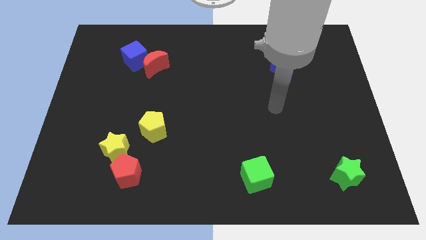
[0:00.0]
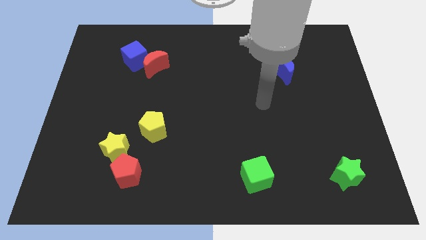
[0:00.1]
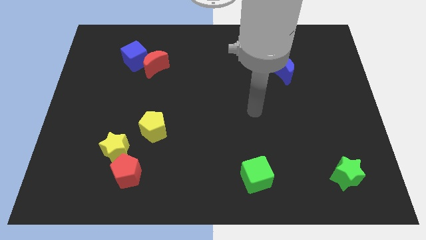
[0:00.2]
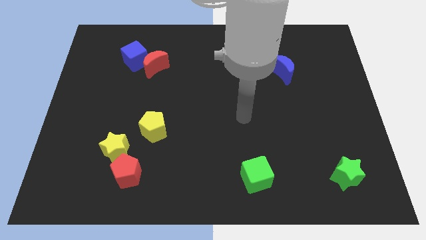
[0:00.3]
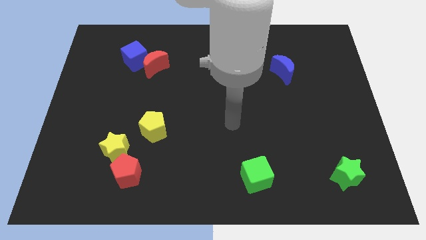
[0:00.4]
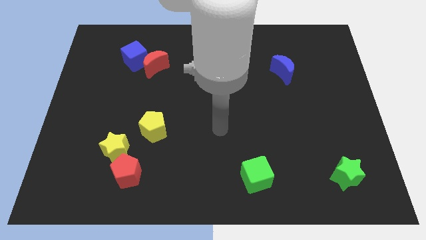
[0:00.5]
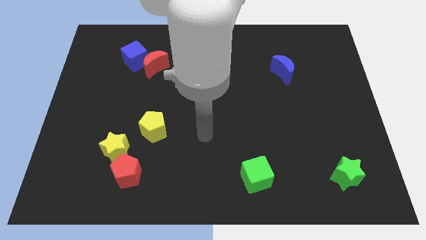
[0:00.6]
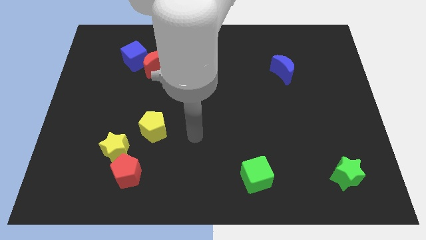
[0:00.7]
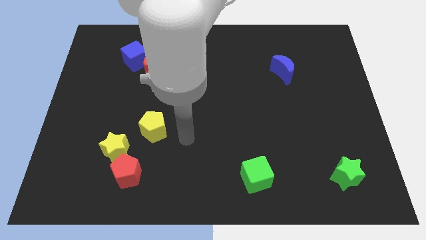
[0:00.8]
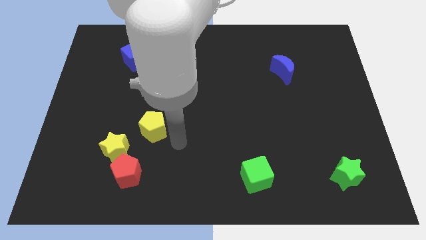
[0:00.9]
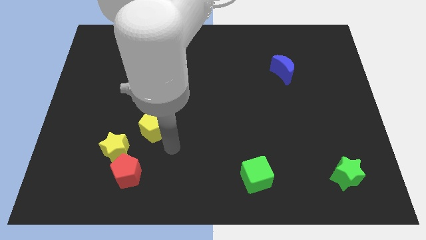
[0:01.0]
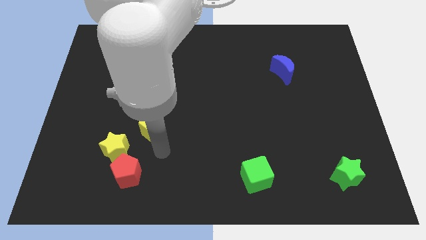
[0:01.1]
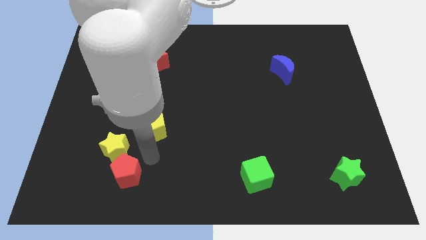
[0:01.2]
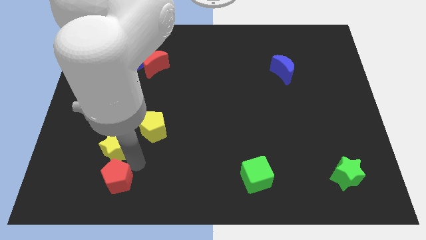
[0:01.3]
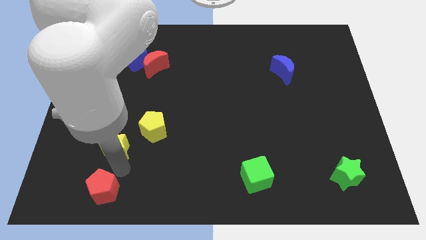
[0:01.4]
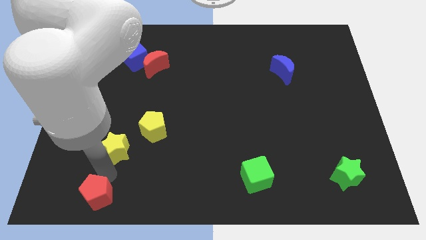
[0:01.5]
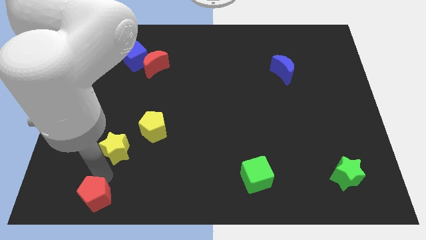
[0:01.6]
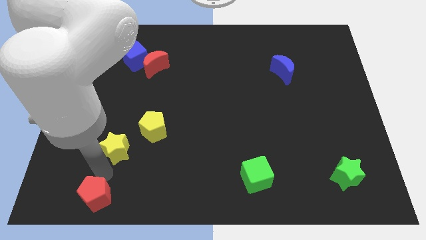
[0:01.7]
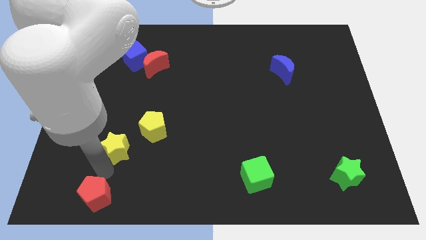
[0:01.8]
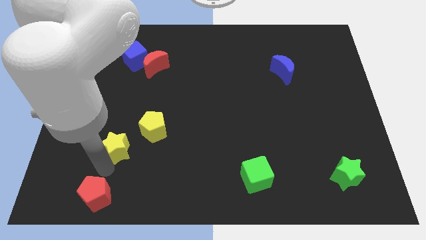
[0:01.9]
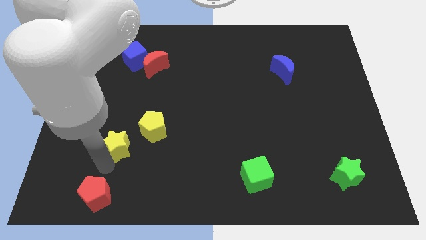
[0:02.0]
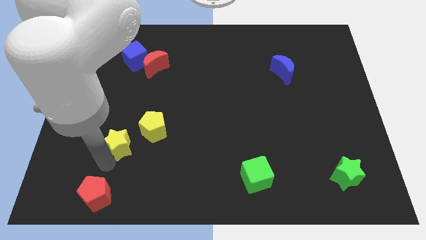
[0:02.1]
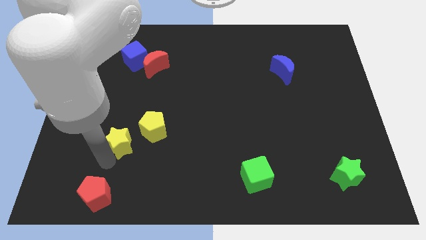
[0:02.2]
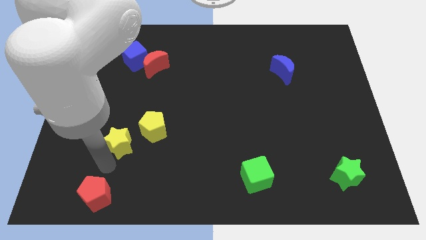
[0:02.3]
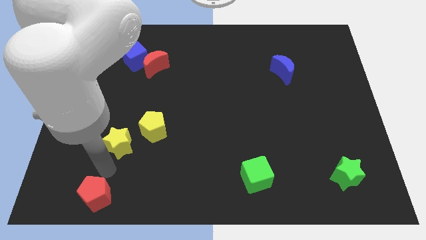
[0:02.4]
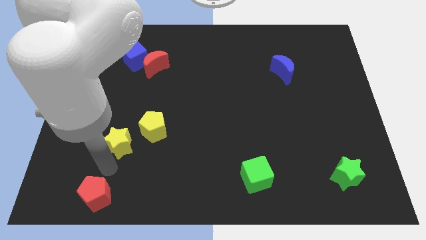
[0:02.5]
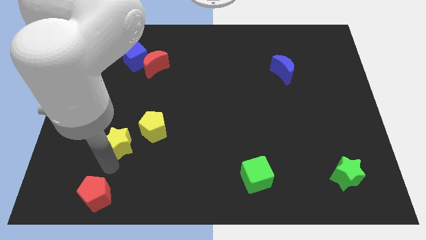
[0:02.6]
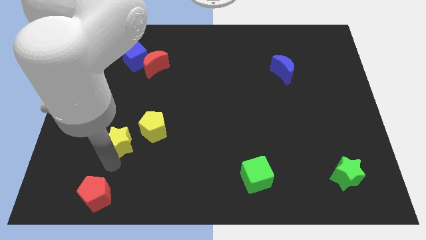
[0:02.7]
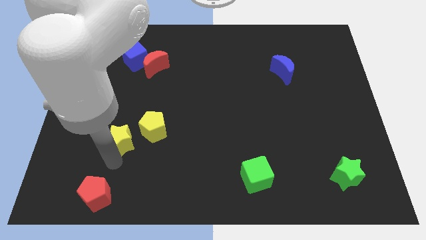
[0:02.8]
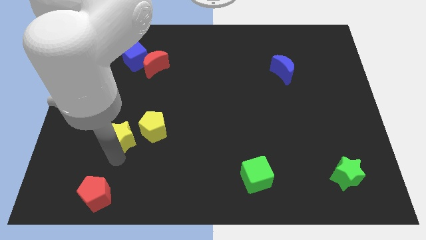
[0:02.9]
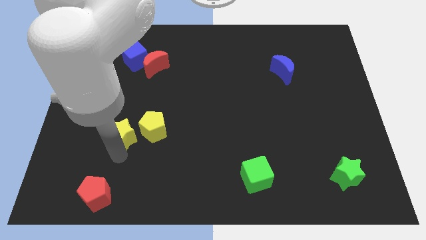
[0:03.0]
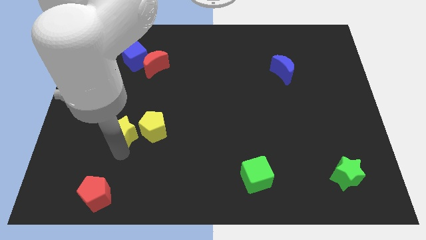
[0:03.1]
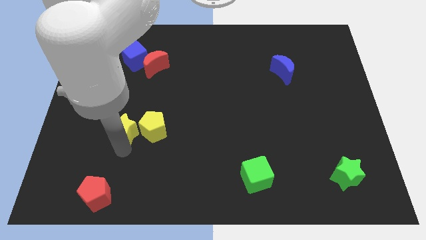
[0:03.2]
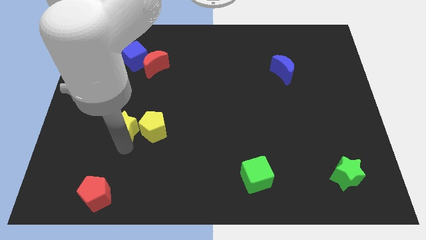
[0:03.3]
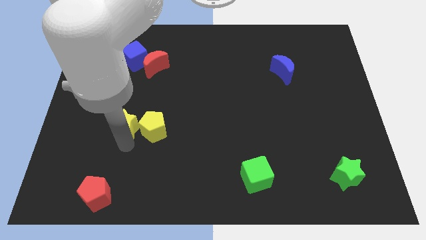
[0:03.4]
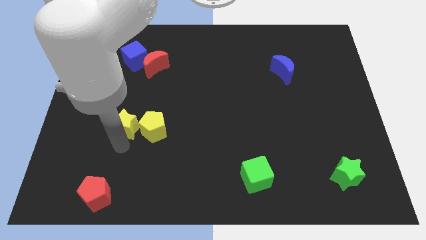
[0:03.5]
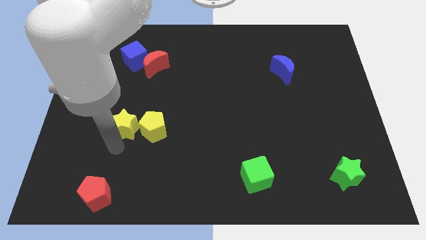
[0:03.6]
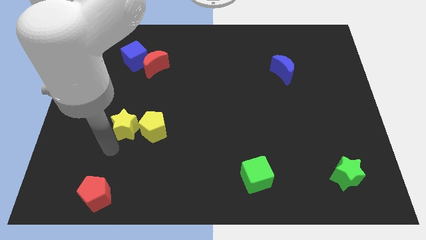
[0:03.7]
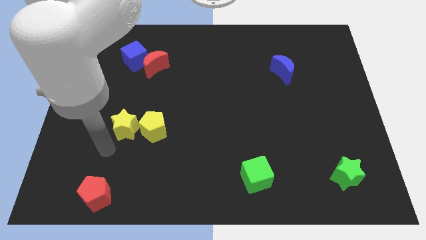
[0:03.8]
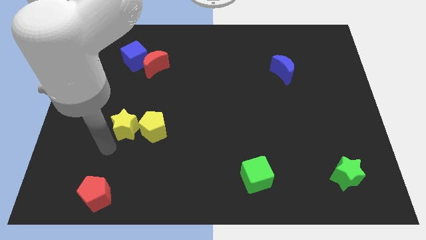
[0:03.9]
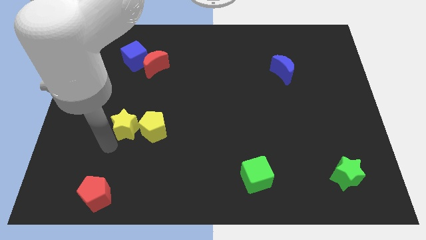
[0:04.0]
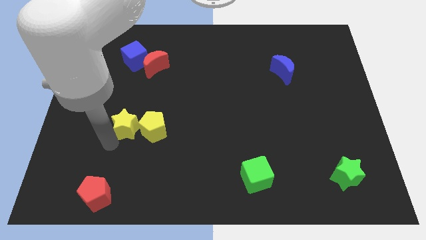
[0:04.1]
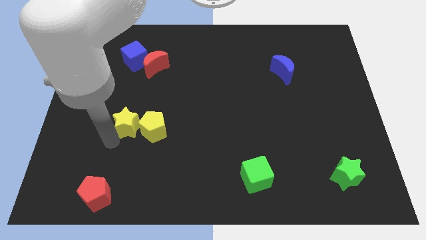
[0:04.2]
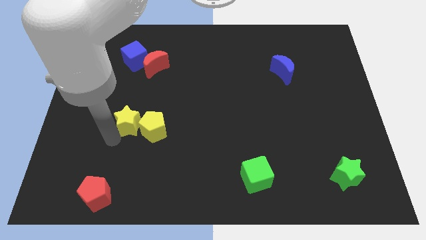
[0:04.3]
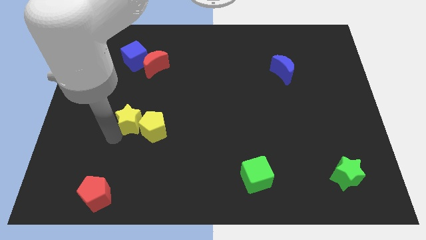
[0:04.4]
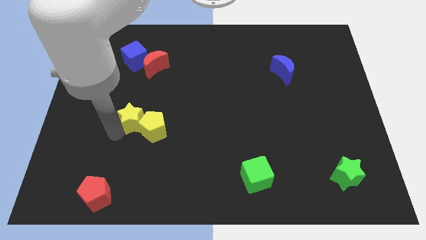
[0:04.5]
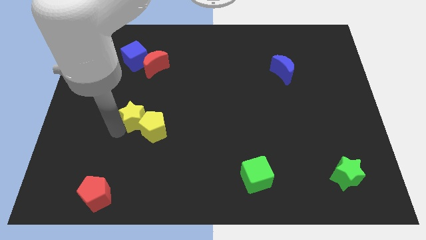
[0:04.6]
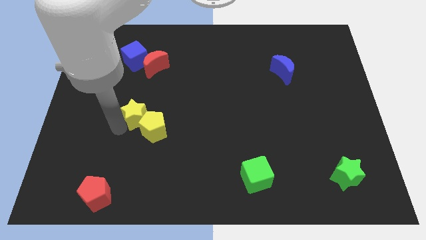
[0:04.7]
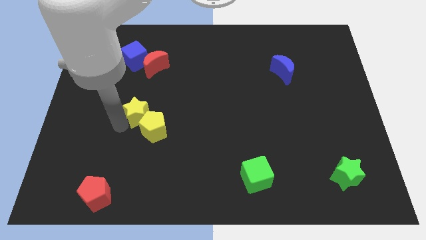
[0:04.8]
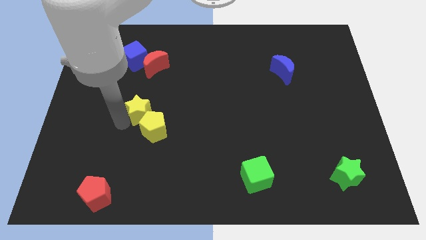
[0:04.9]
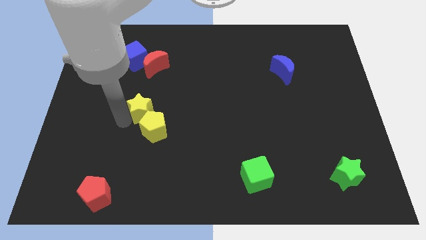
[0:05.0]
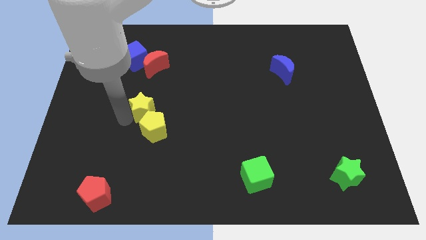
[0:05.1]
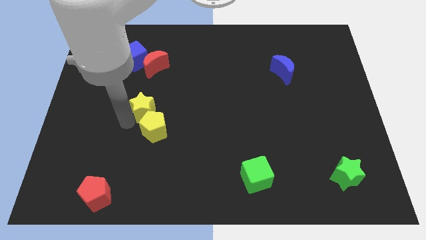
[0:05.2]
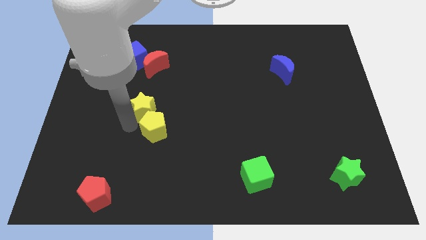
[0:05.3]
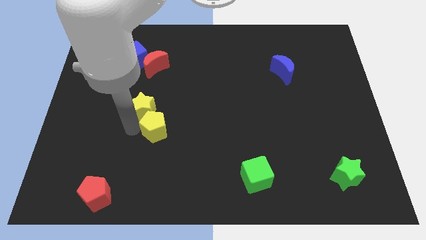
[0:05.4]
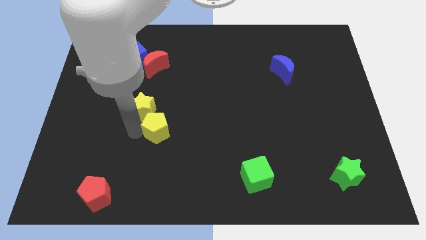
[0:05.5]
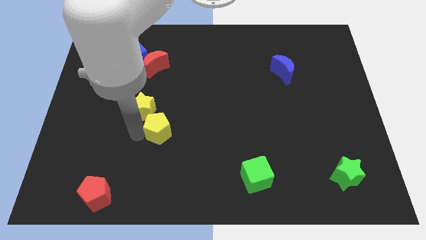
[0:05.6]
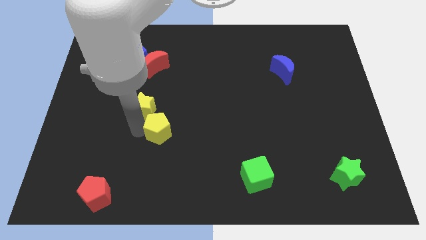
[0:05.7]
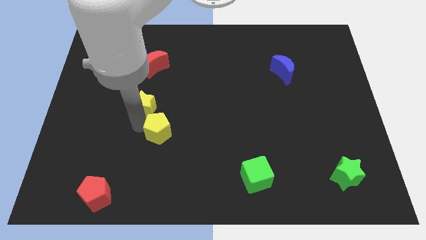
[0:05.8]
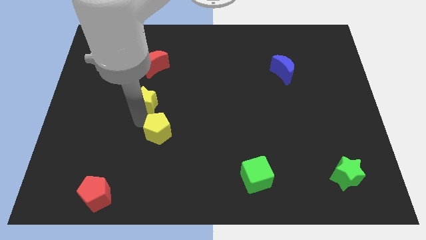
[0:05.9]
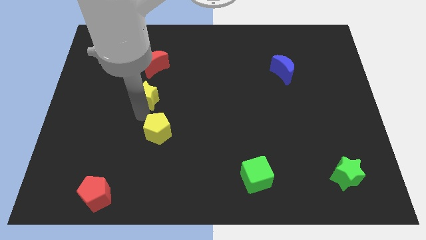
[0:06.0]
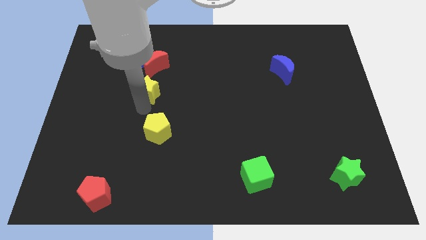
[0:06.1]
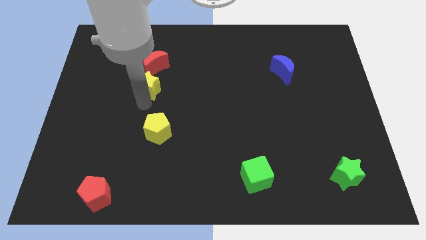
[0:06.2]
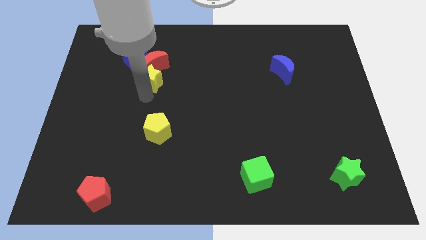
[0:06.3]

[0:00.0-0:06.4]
slide the yellow star towards the red moon

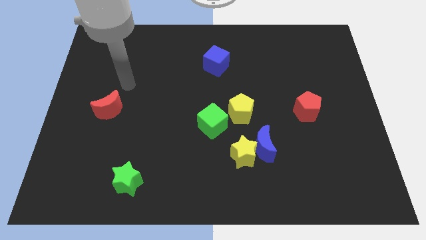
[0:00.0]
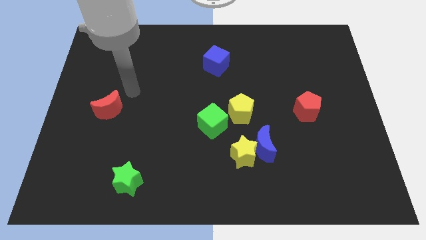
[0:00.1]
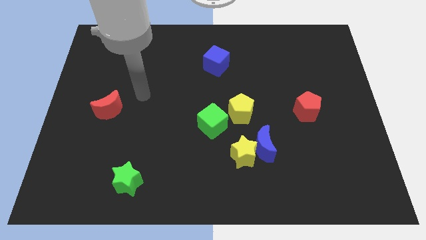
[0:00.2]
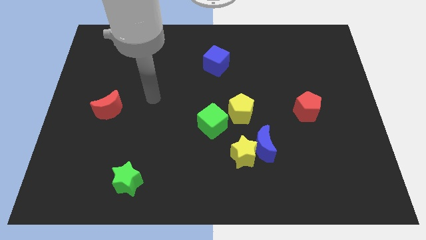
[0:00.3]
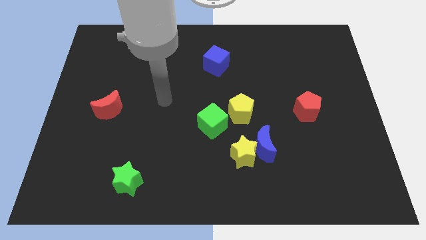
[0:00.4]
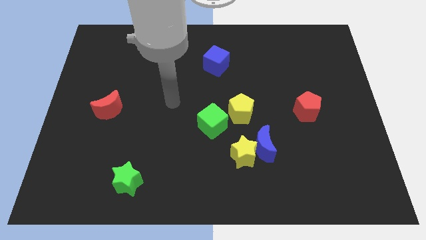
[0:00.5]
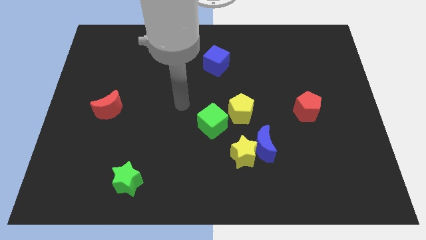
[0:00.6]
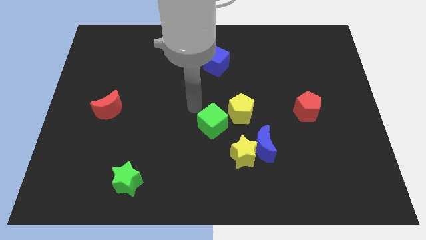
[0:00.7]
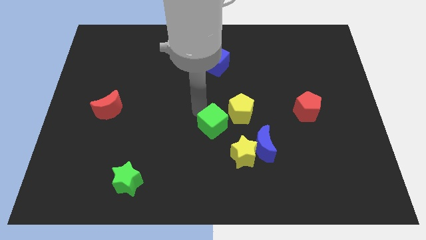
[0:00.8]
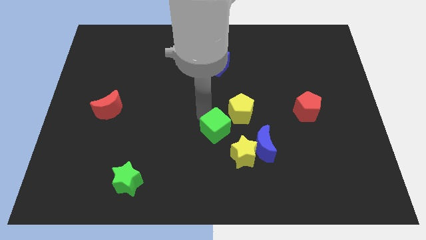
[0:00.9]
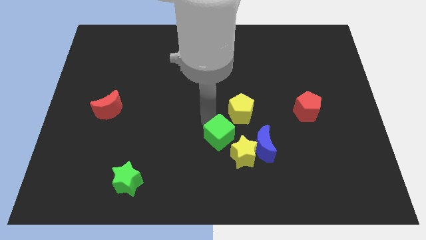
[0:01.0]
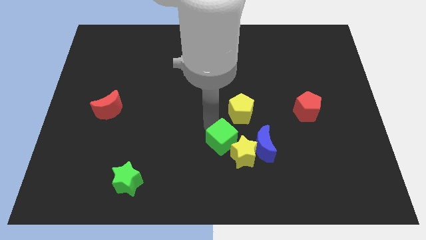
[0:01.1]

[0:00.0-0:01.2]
push the green cube to the yellow star
